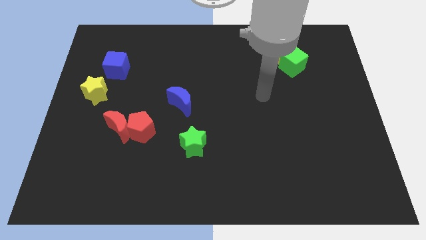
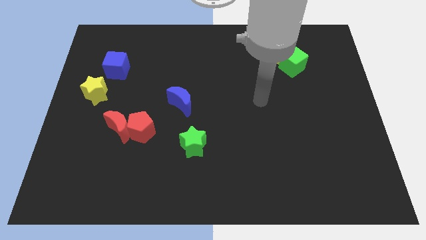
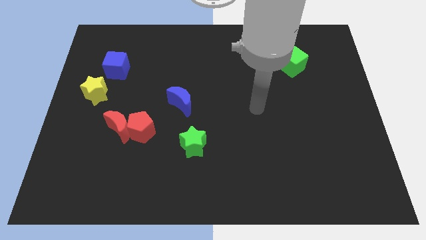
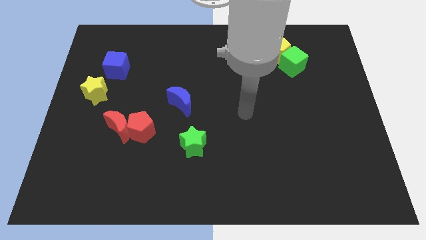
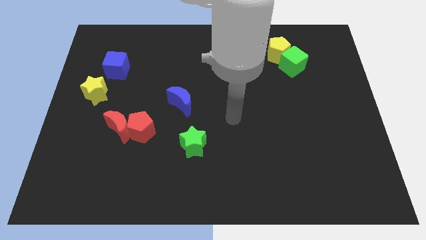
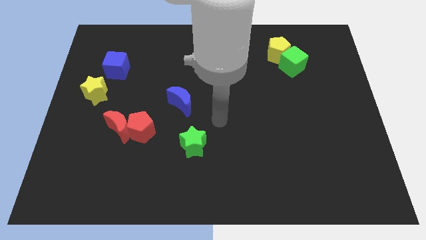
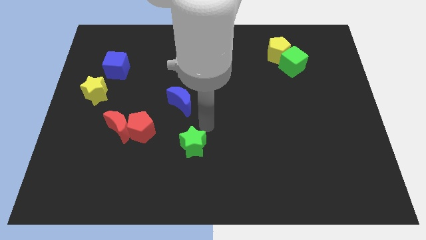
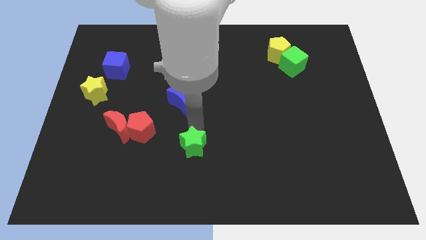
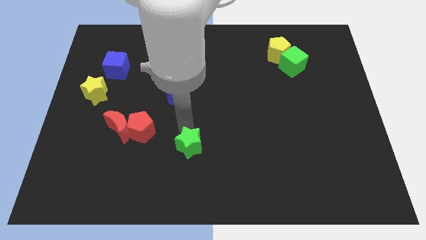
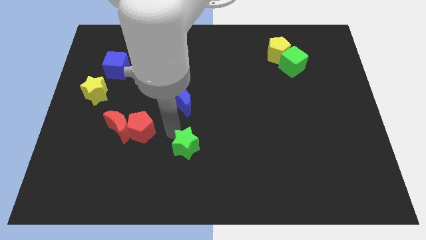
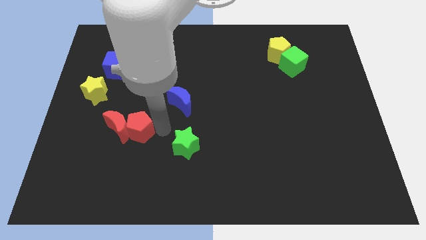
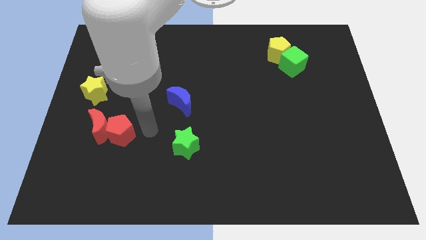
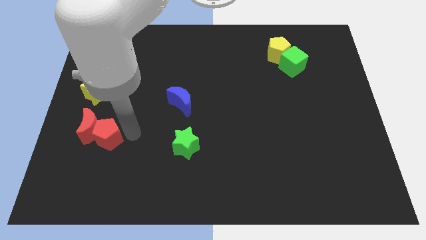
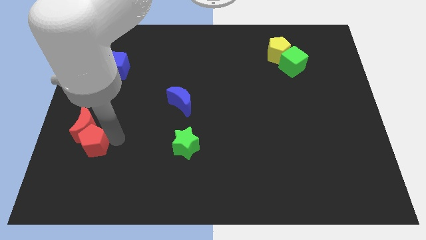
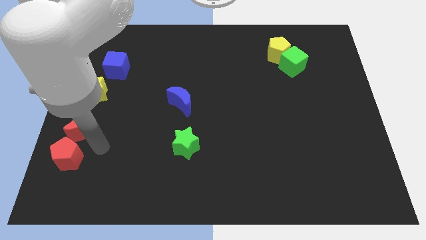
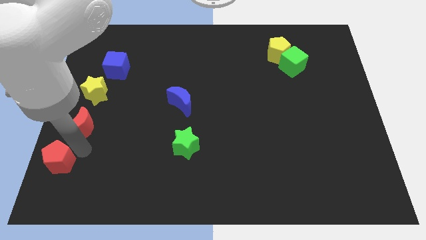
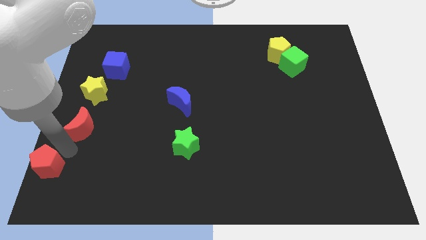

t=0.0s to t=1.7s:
separate the red moon from the red pentagon

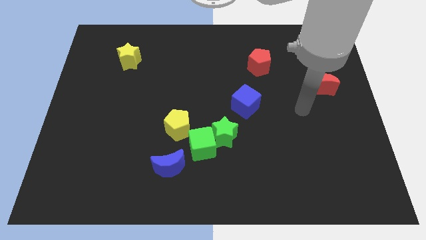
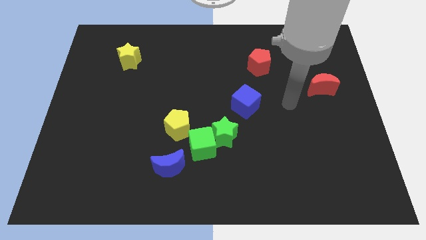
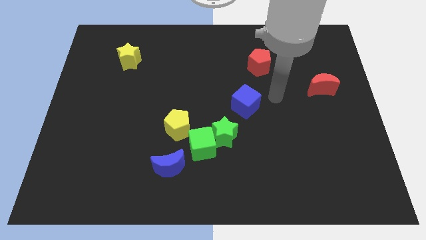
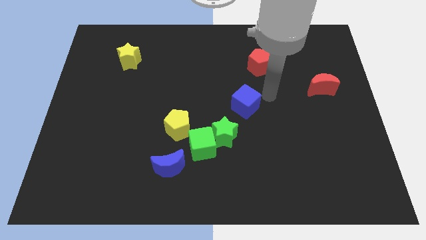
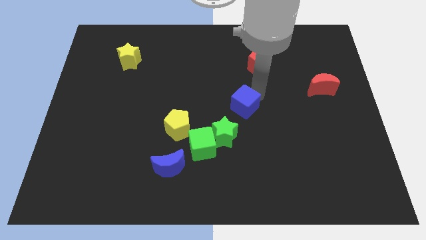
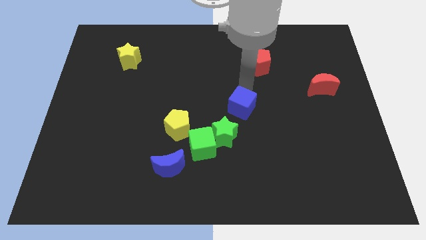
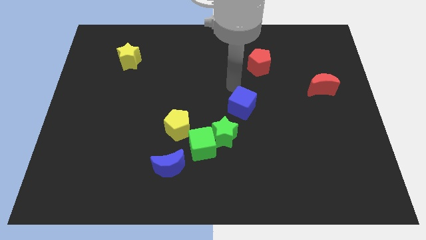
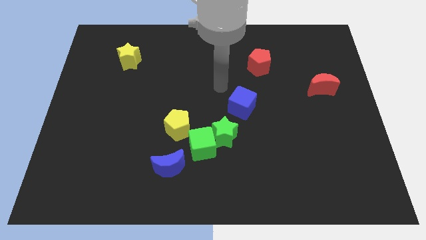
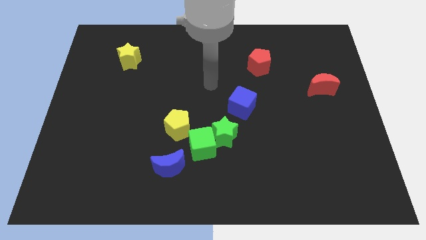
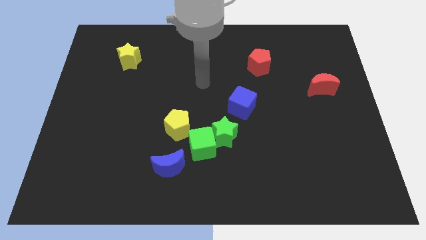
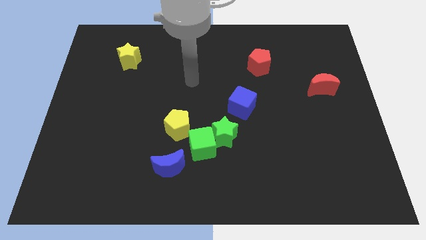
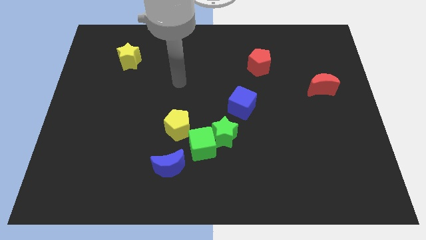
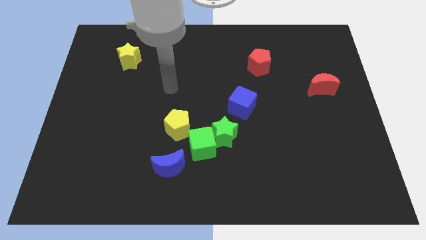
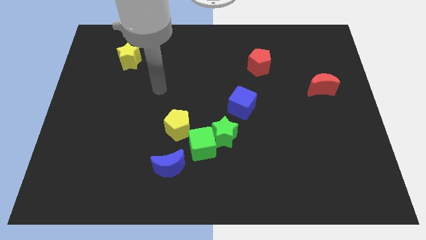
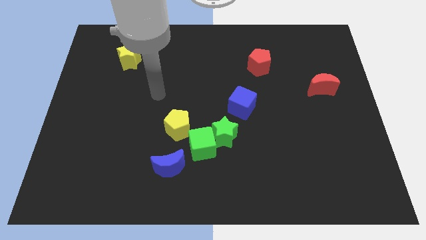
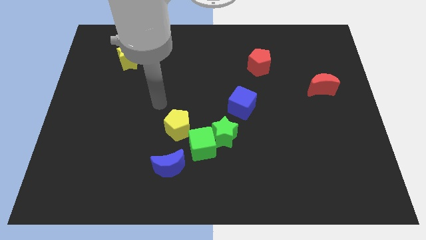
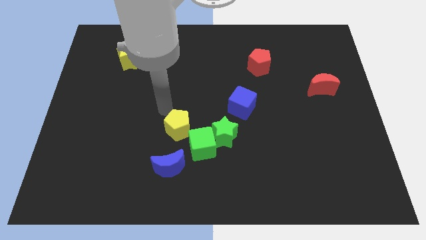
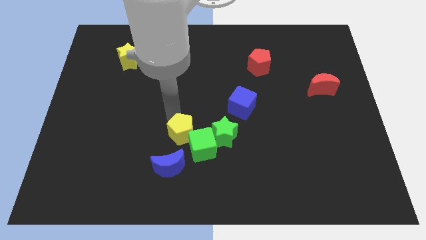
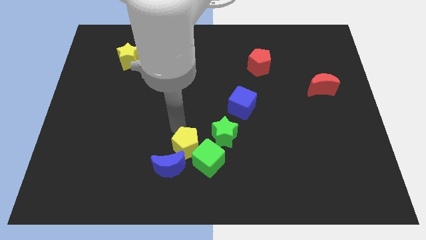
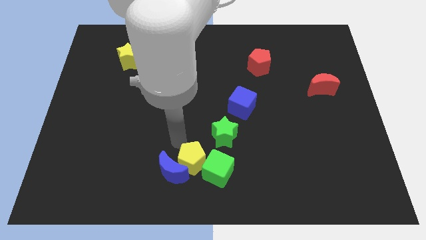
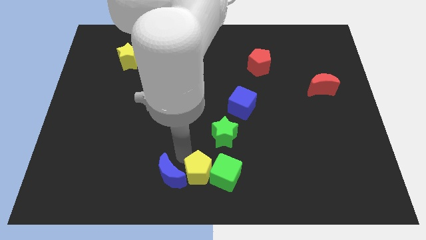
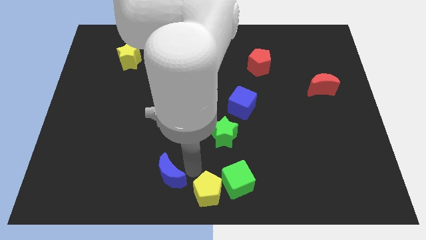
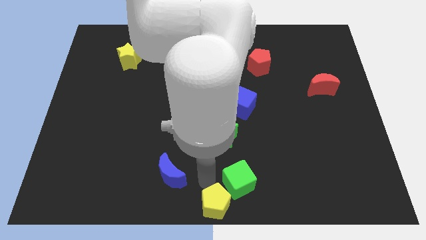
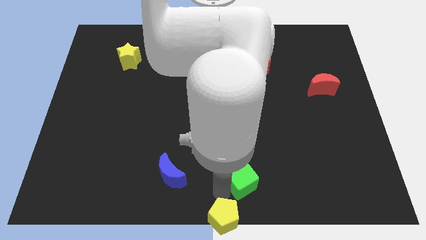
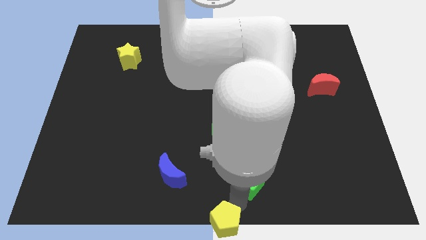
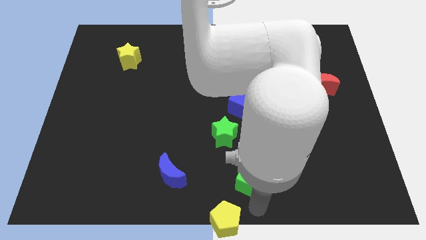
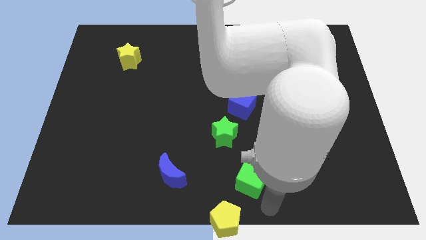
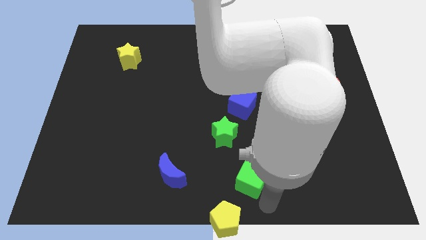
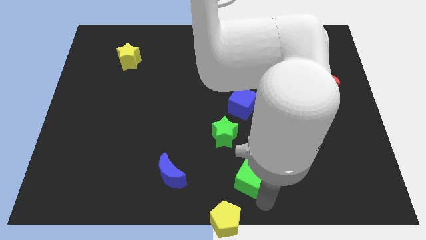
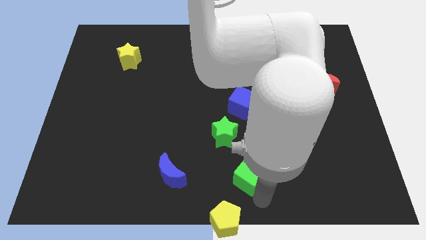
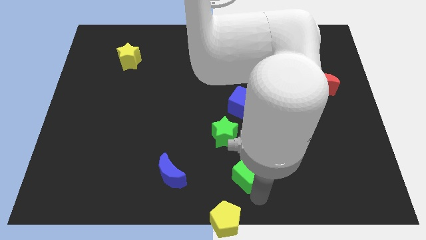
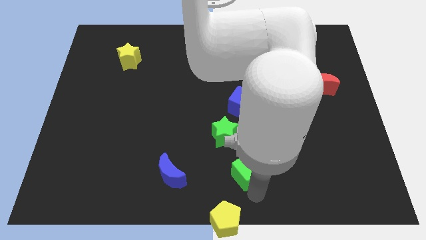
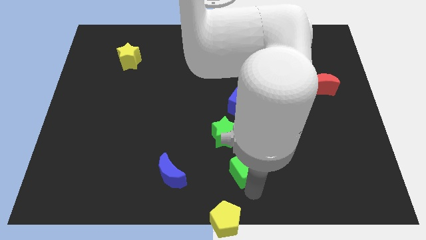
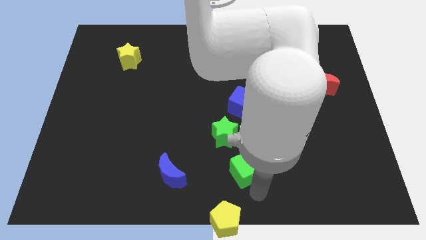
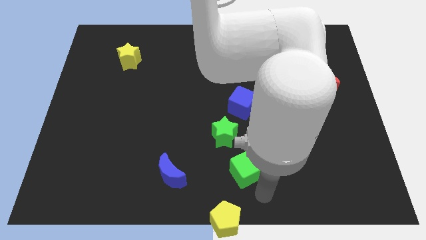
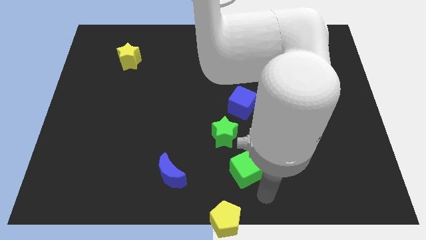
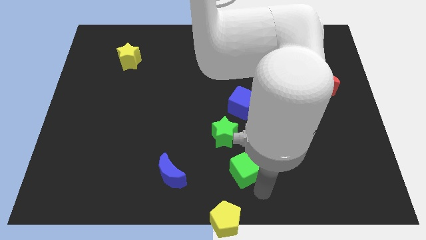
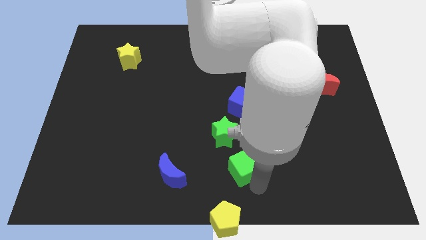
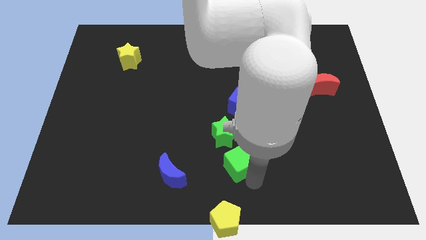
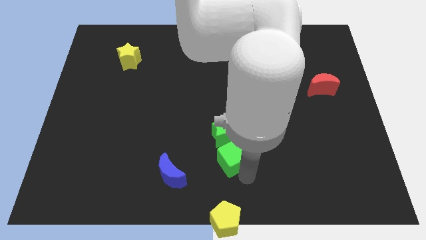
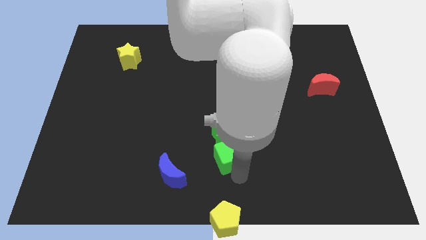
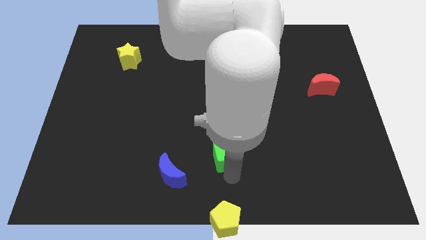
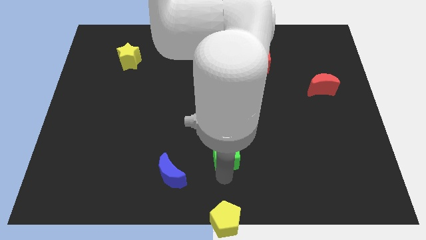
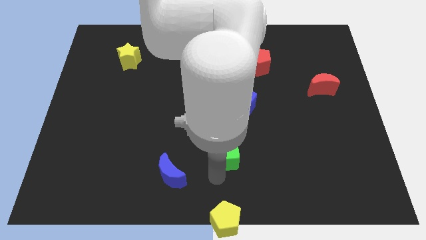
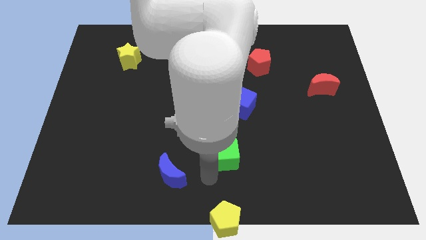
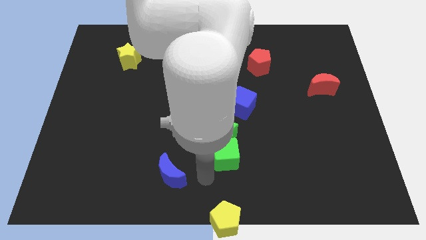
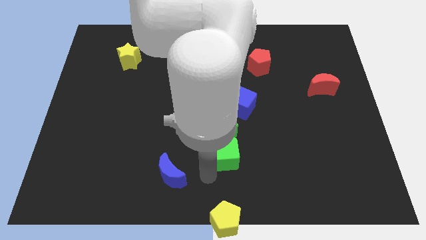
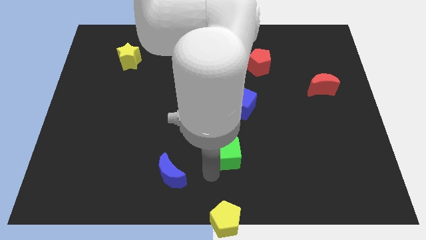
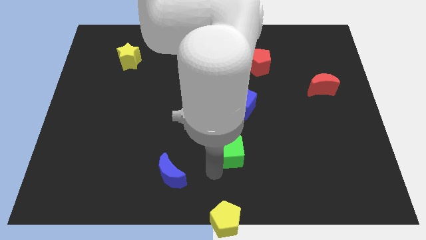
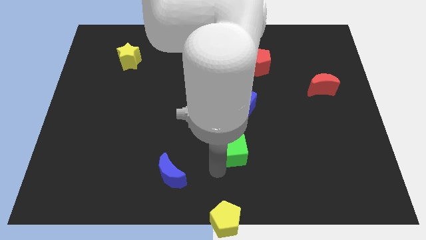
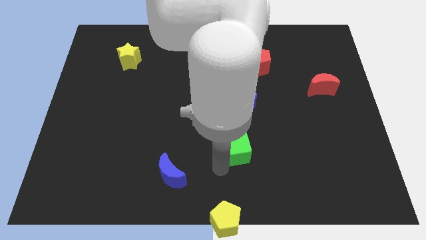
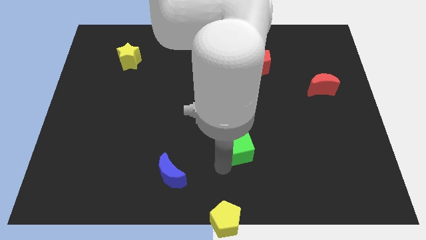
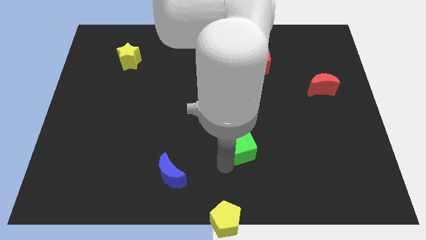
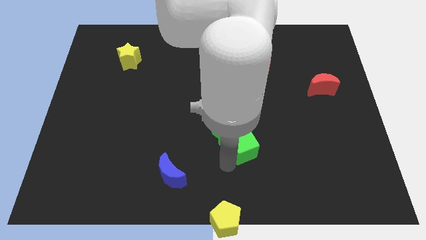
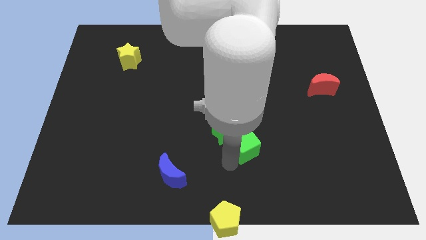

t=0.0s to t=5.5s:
separate the green cube from the group

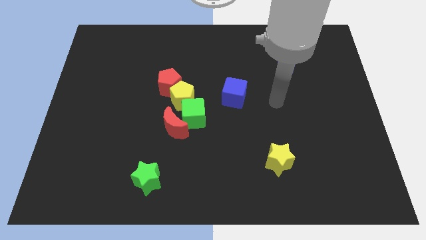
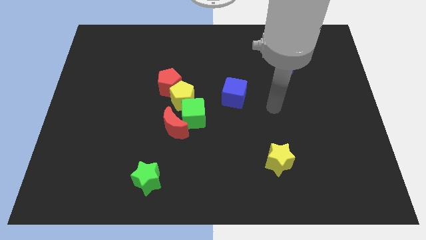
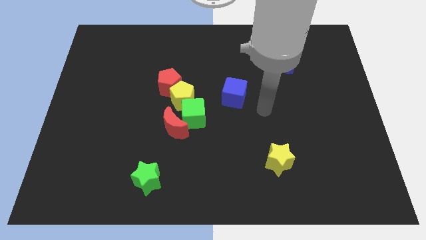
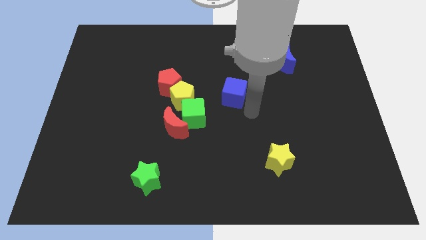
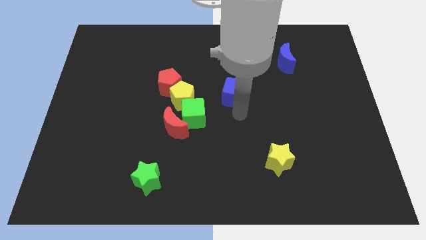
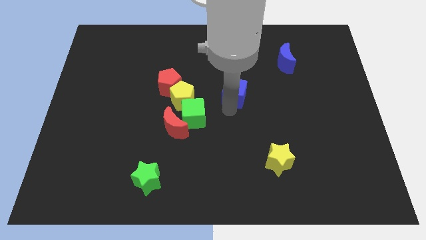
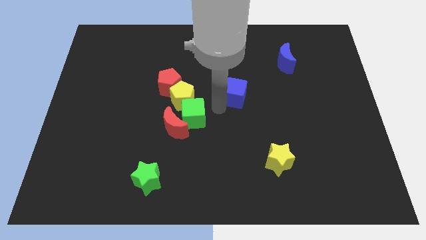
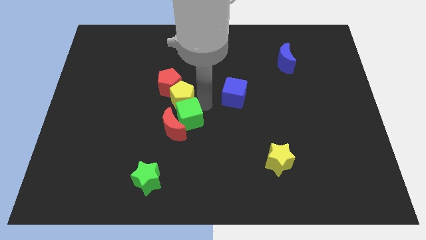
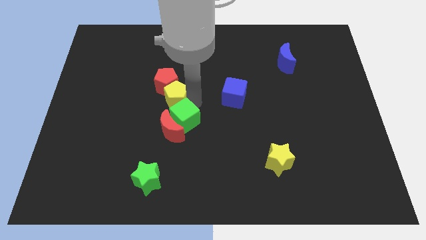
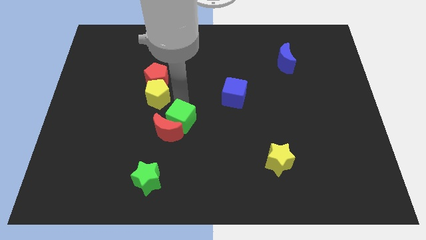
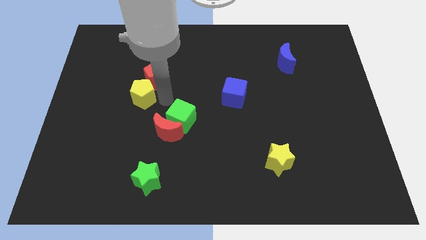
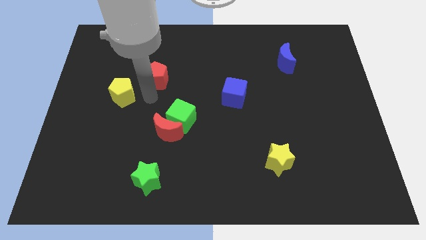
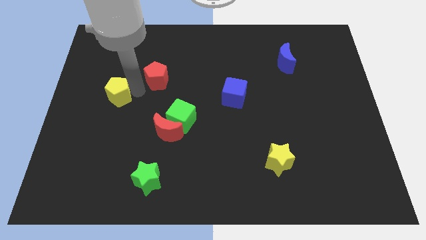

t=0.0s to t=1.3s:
move the red pentagon away from the yellow pentagon

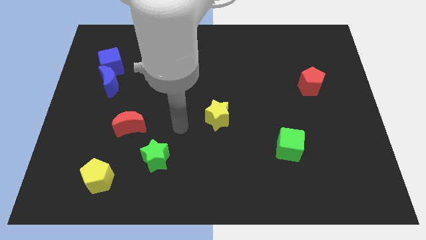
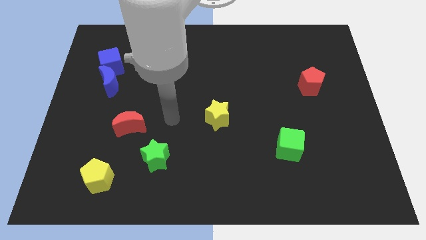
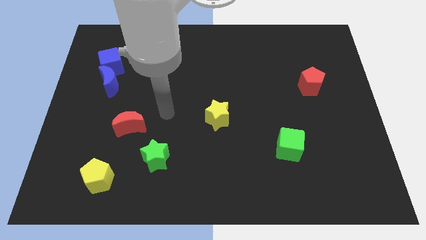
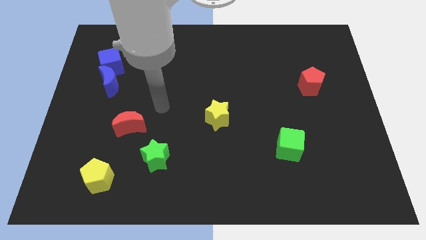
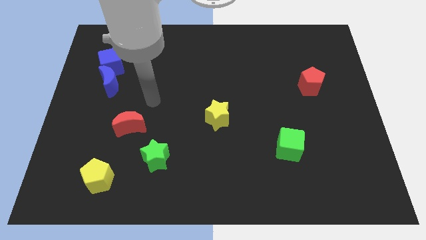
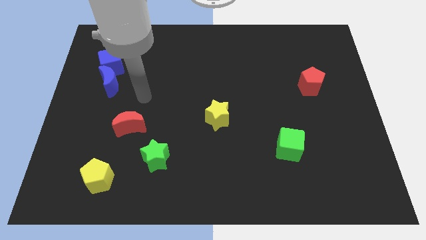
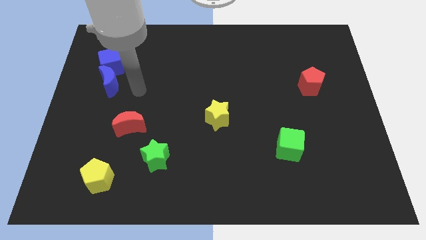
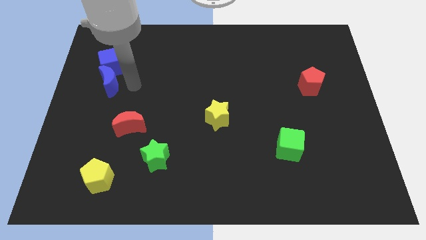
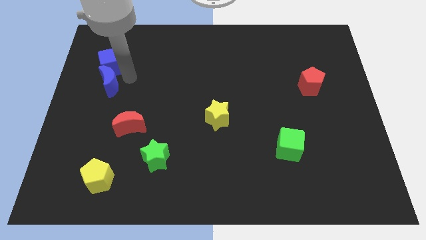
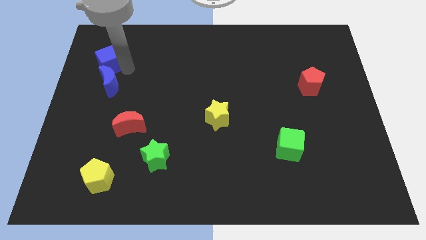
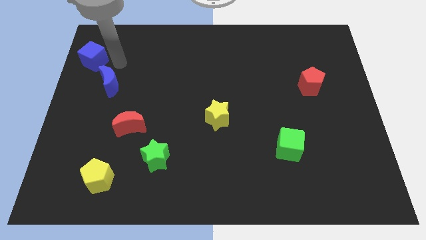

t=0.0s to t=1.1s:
pull the blue moon apart from the blue cube
